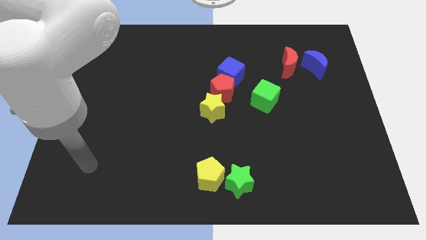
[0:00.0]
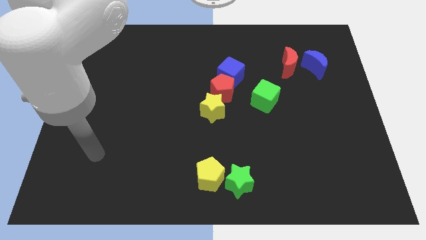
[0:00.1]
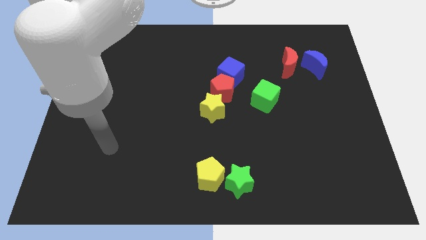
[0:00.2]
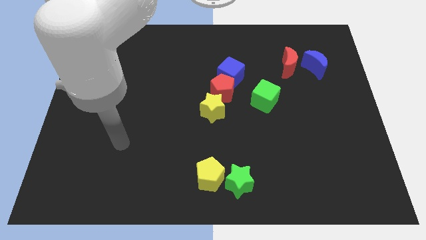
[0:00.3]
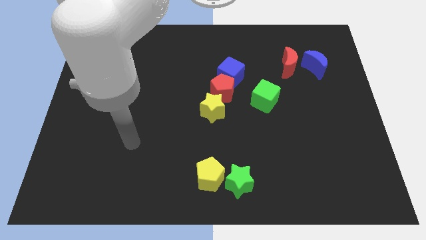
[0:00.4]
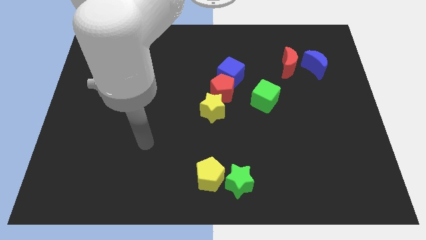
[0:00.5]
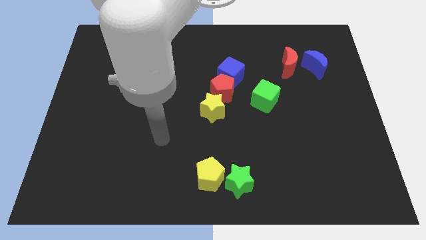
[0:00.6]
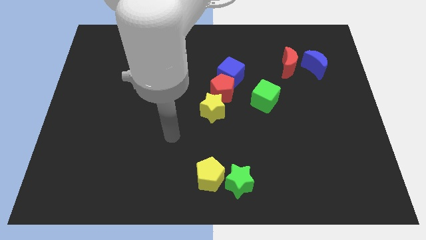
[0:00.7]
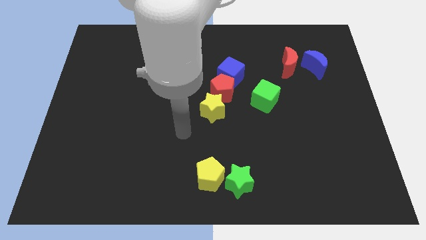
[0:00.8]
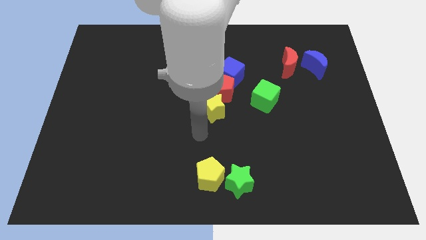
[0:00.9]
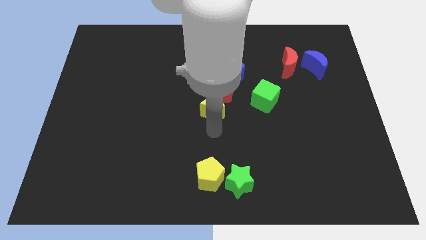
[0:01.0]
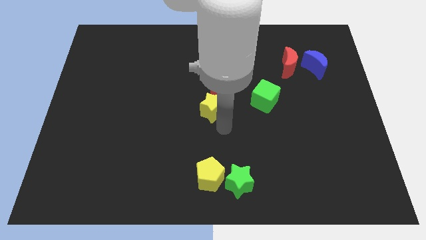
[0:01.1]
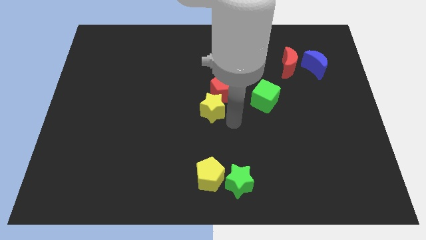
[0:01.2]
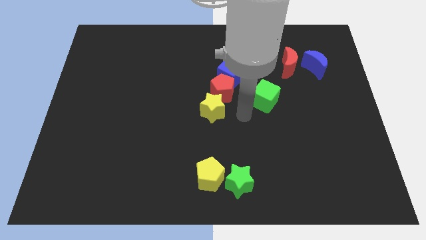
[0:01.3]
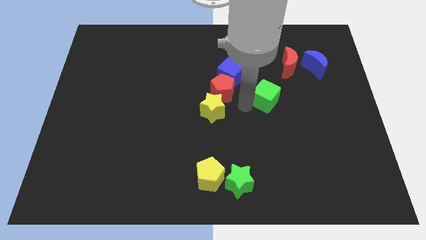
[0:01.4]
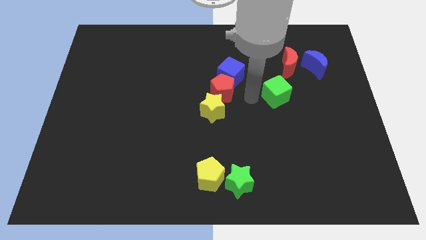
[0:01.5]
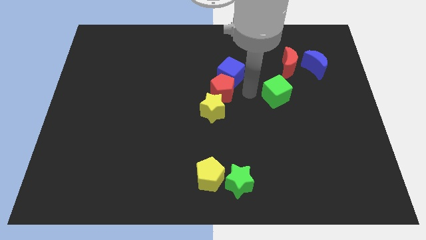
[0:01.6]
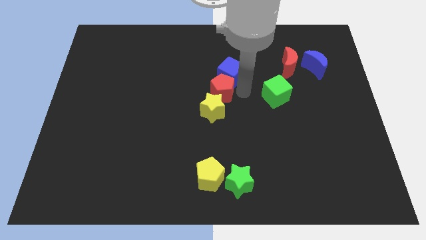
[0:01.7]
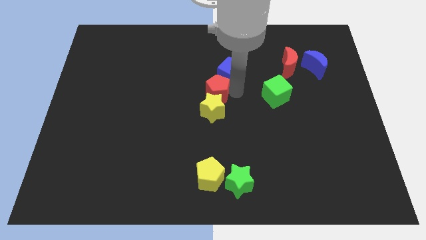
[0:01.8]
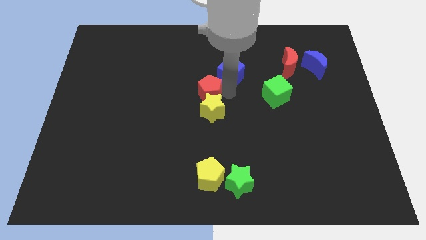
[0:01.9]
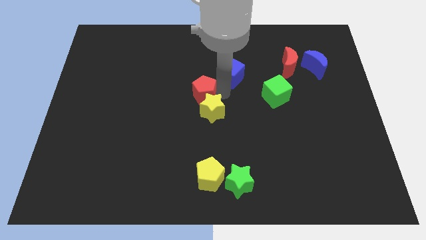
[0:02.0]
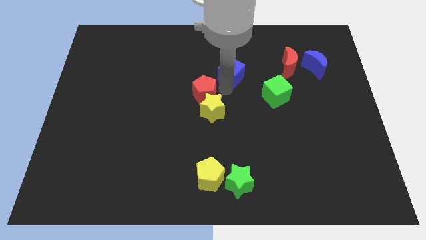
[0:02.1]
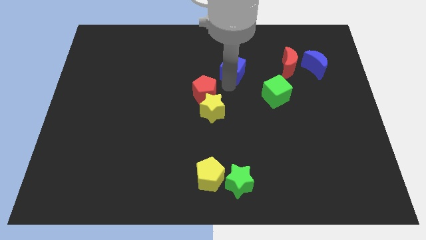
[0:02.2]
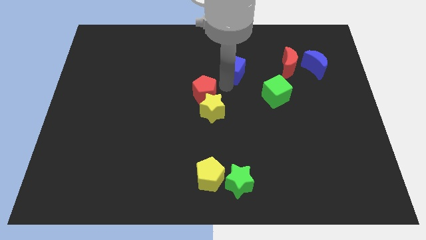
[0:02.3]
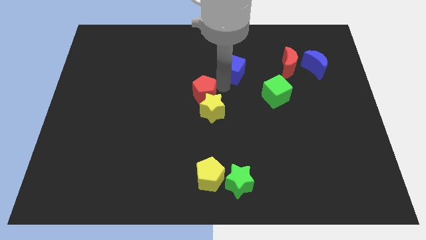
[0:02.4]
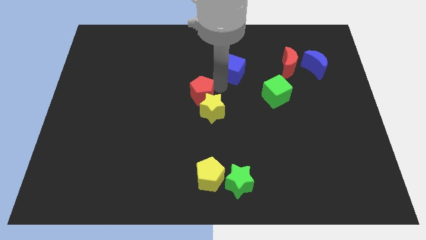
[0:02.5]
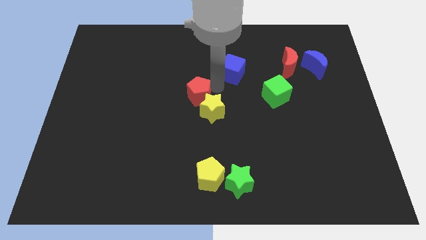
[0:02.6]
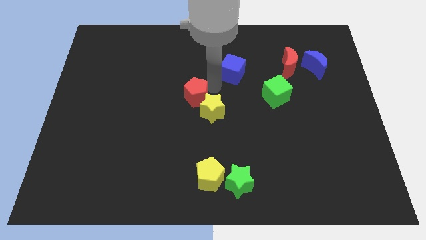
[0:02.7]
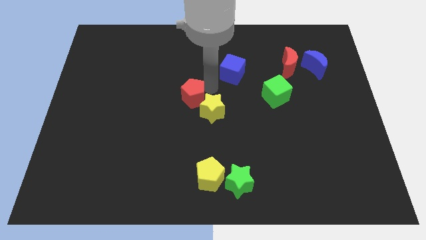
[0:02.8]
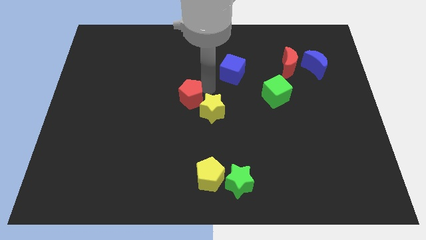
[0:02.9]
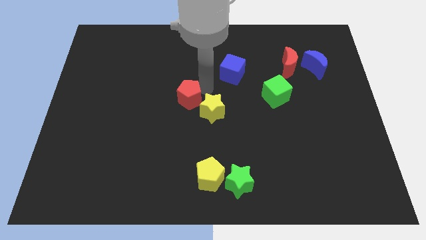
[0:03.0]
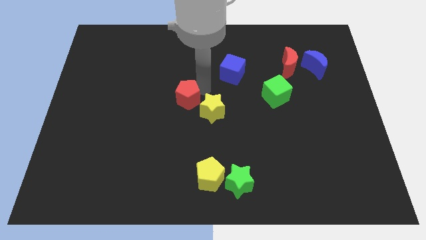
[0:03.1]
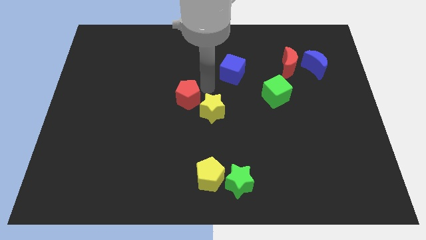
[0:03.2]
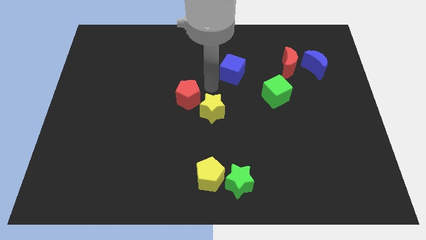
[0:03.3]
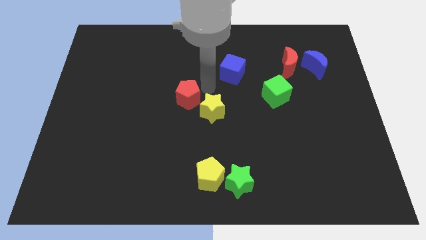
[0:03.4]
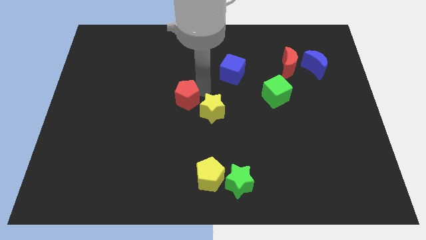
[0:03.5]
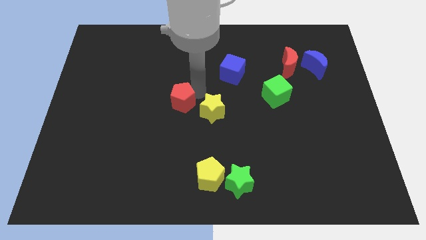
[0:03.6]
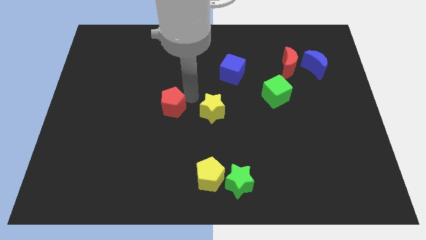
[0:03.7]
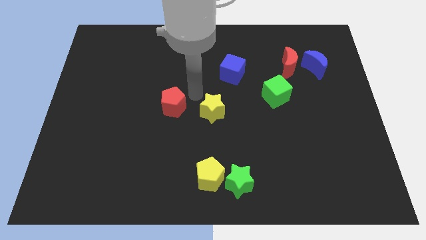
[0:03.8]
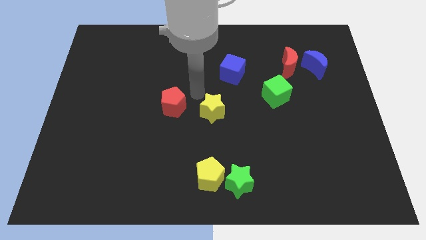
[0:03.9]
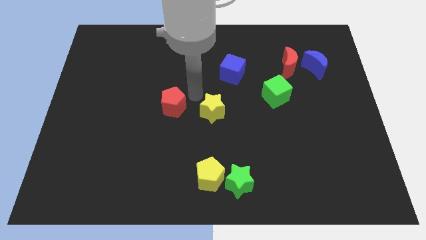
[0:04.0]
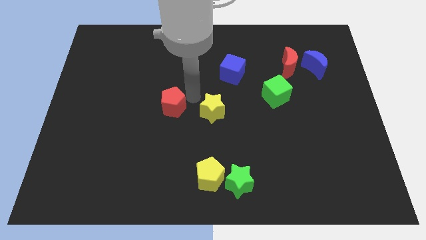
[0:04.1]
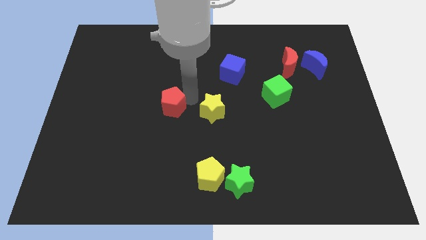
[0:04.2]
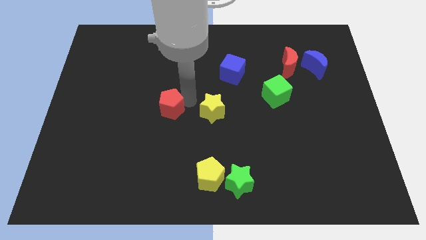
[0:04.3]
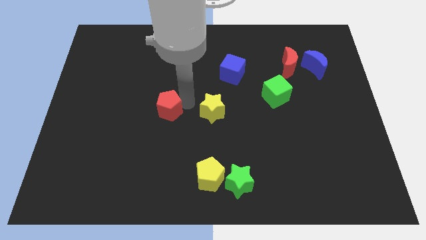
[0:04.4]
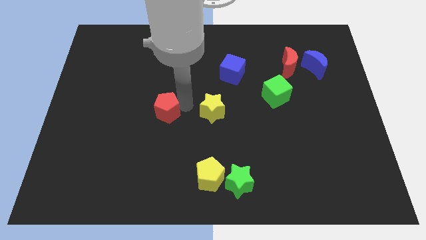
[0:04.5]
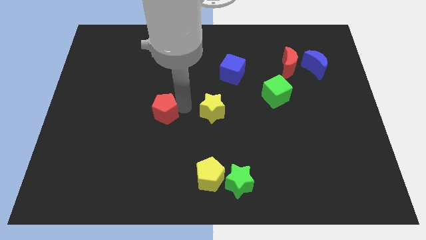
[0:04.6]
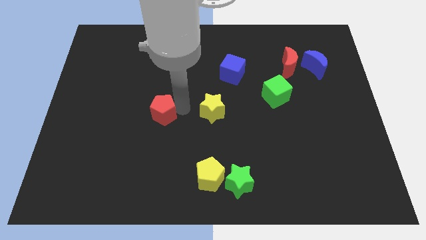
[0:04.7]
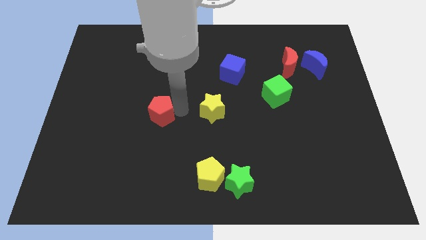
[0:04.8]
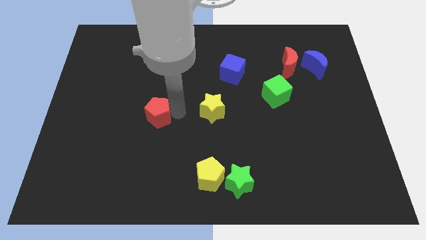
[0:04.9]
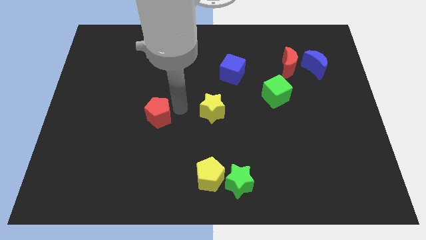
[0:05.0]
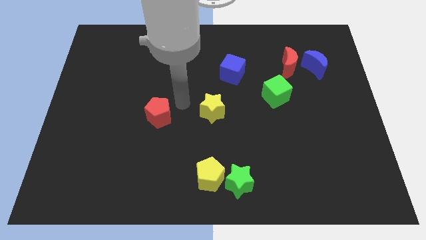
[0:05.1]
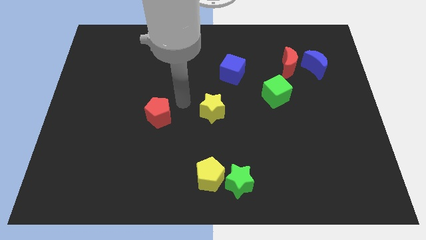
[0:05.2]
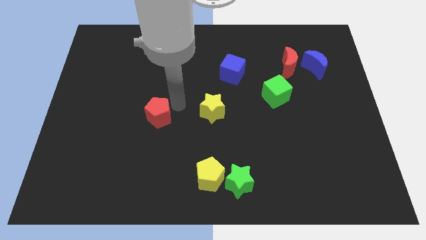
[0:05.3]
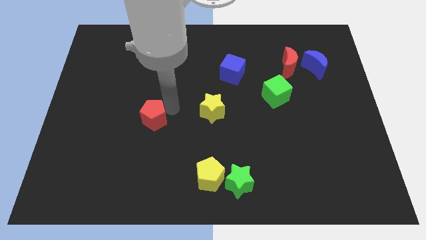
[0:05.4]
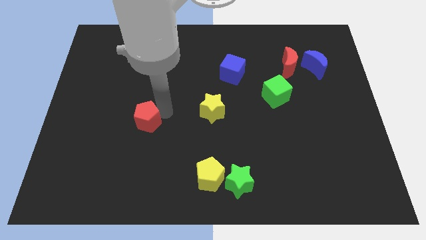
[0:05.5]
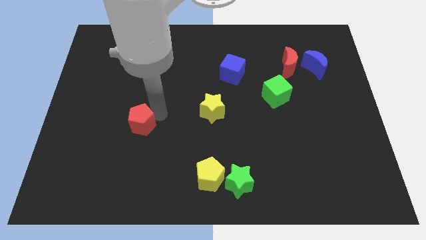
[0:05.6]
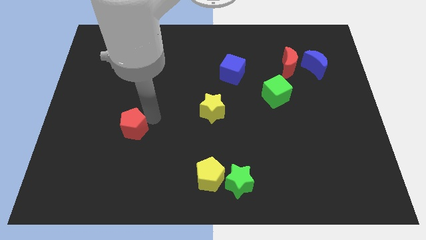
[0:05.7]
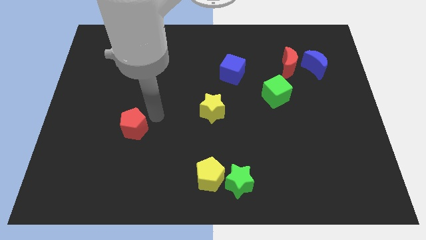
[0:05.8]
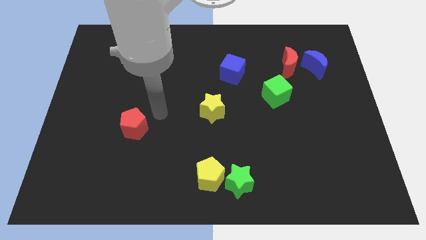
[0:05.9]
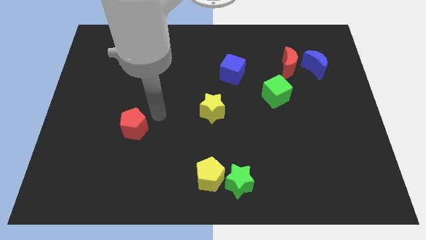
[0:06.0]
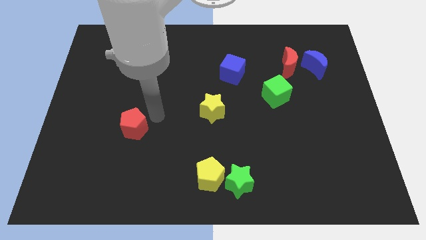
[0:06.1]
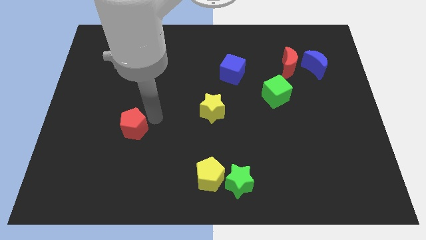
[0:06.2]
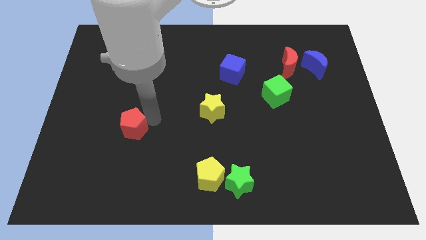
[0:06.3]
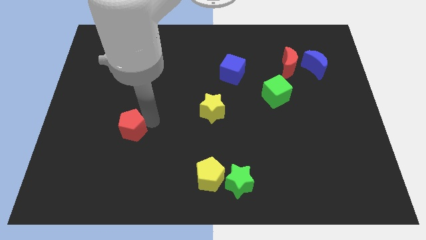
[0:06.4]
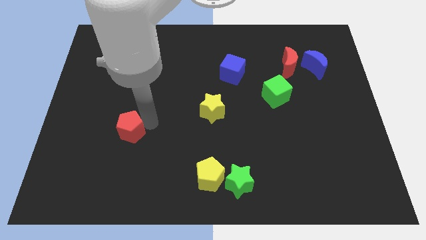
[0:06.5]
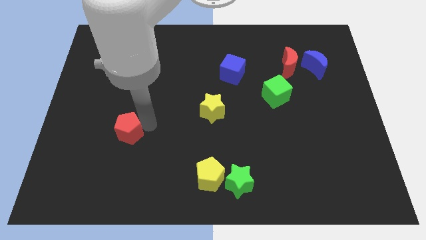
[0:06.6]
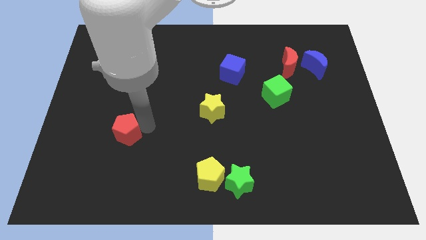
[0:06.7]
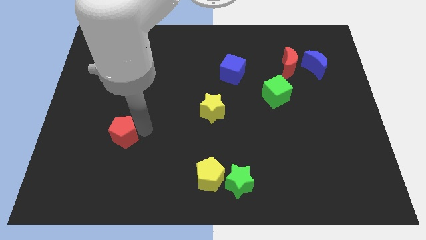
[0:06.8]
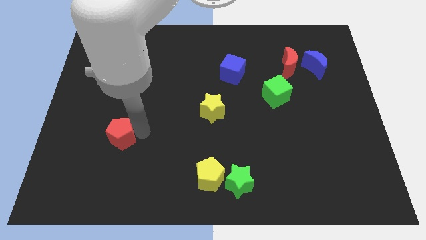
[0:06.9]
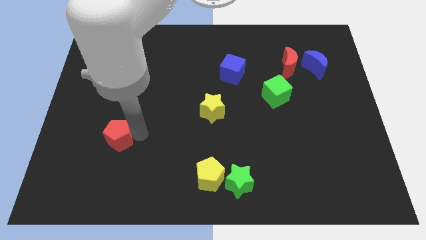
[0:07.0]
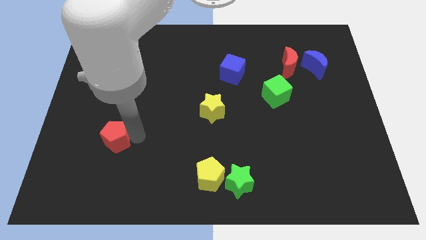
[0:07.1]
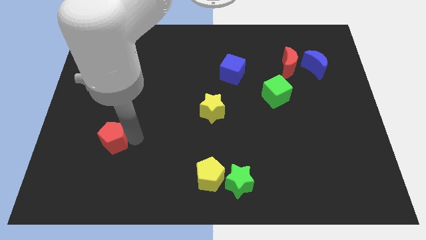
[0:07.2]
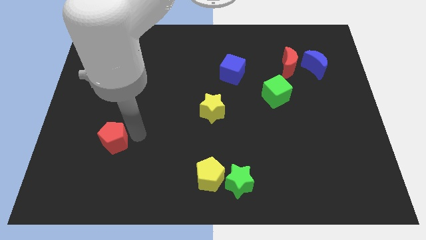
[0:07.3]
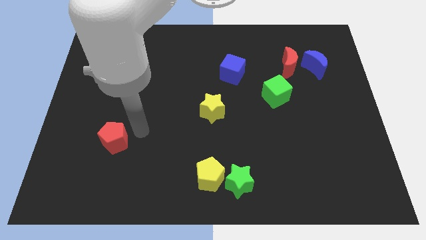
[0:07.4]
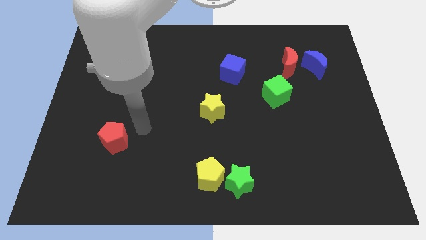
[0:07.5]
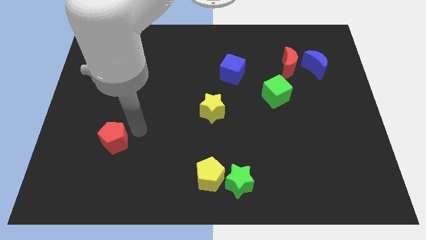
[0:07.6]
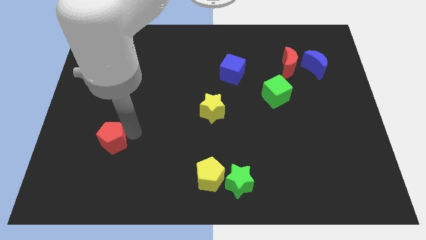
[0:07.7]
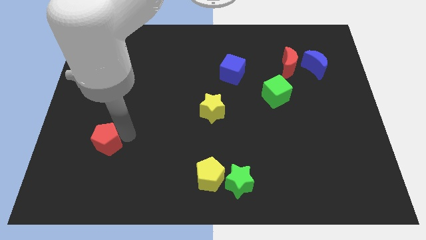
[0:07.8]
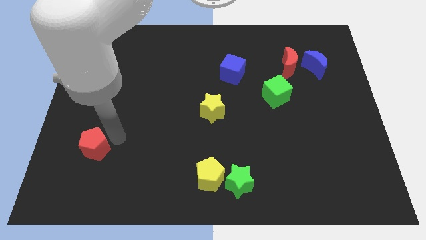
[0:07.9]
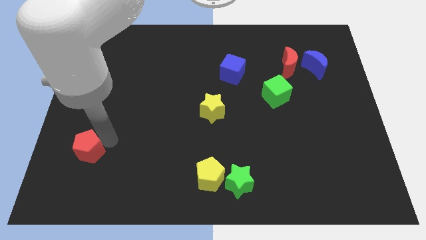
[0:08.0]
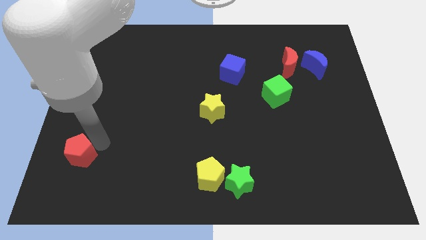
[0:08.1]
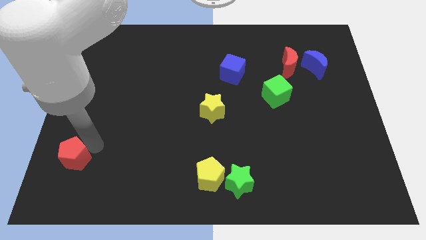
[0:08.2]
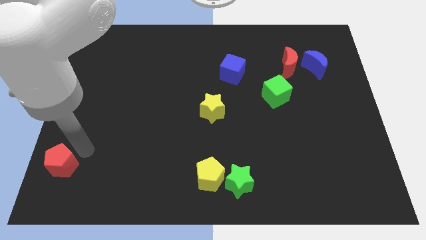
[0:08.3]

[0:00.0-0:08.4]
put the red pentagon to the bottom left corner
